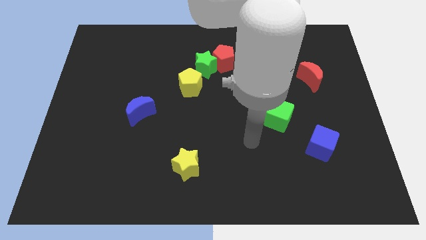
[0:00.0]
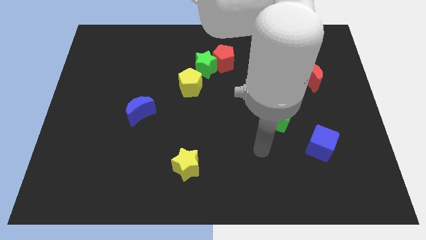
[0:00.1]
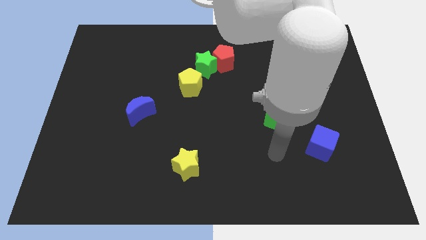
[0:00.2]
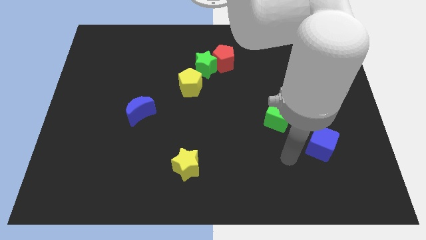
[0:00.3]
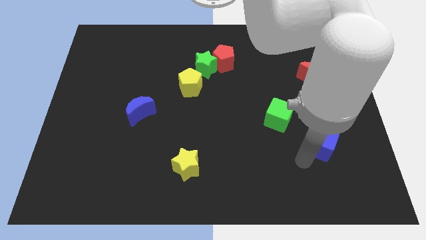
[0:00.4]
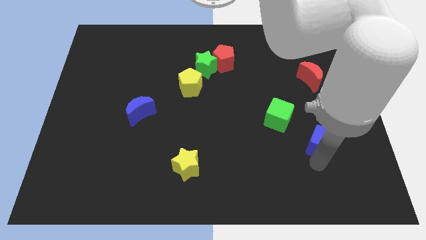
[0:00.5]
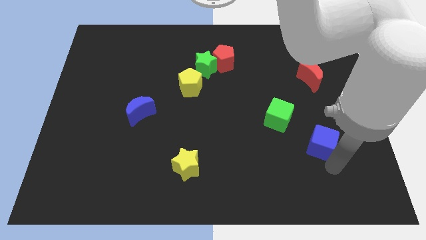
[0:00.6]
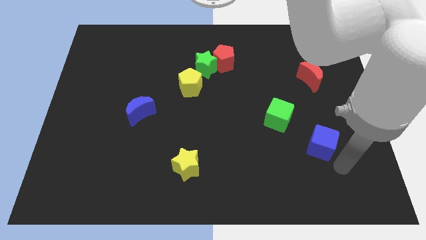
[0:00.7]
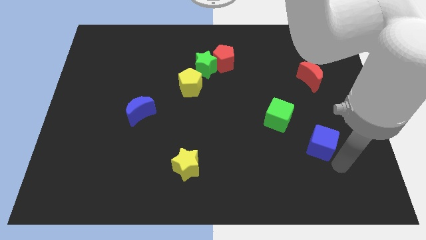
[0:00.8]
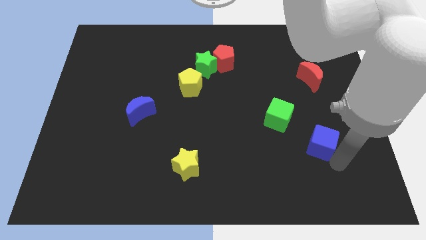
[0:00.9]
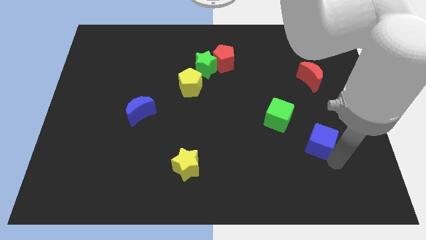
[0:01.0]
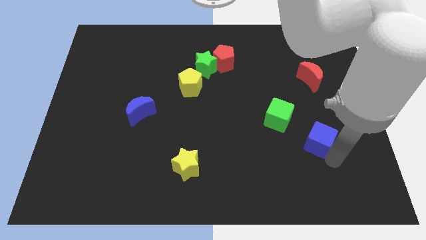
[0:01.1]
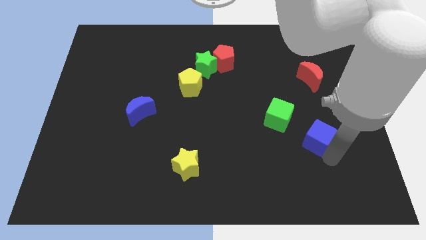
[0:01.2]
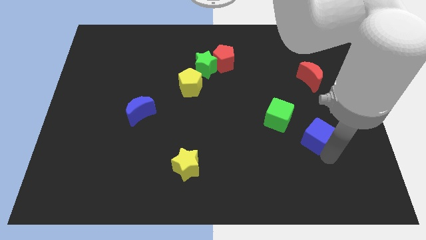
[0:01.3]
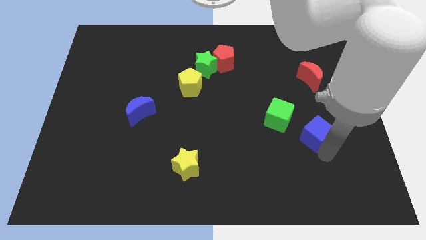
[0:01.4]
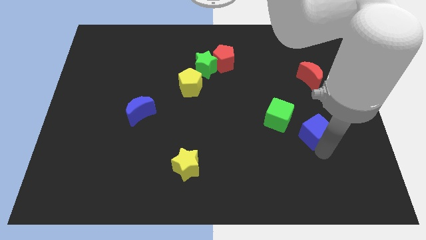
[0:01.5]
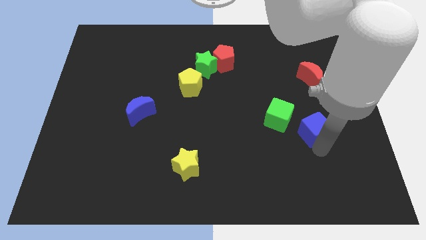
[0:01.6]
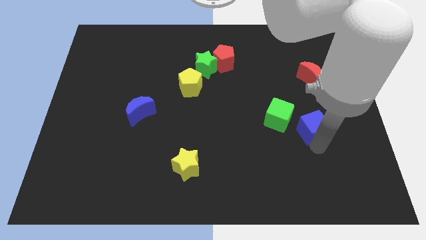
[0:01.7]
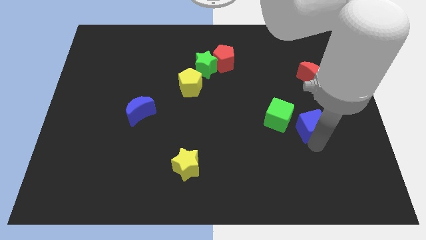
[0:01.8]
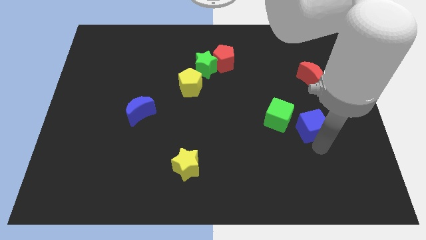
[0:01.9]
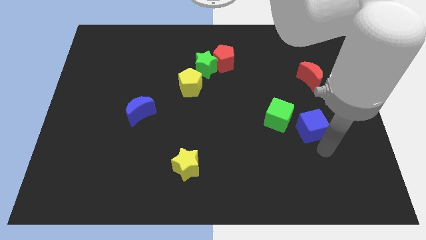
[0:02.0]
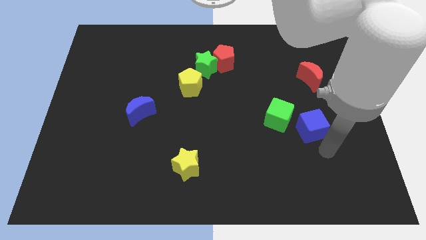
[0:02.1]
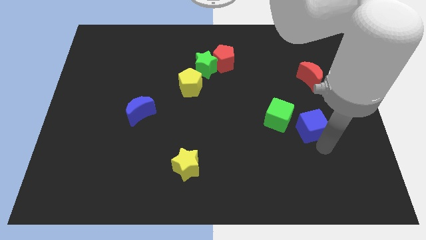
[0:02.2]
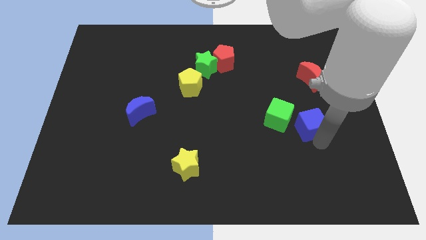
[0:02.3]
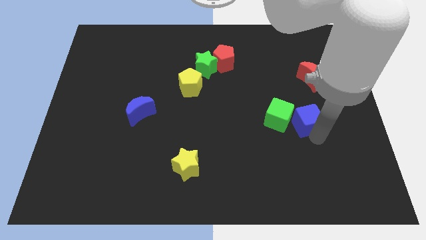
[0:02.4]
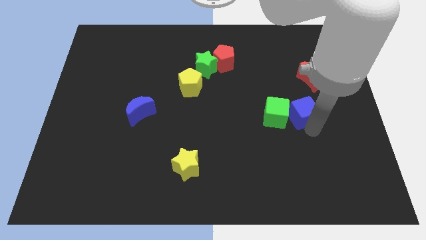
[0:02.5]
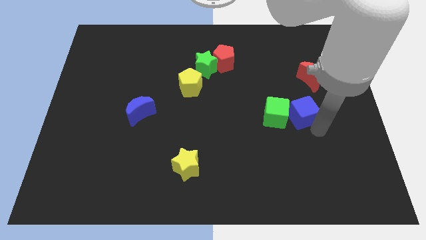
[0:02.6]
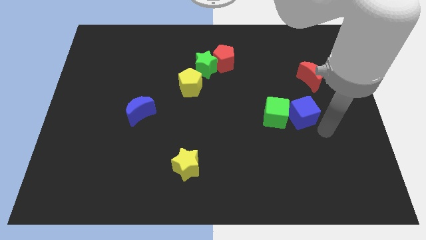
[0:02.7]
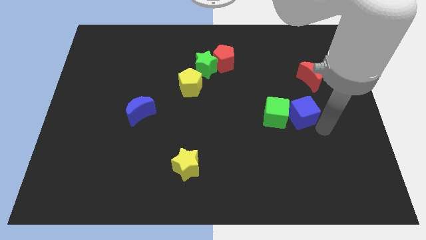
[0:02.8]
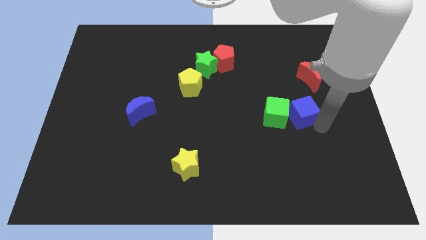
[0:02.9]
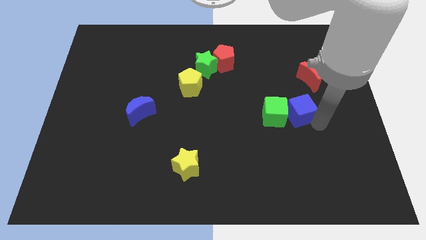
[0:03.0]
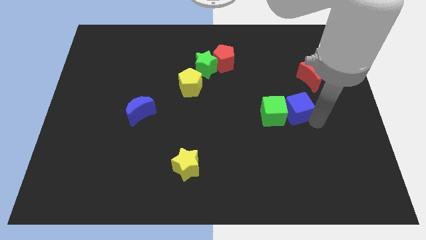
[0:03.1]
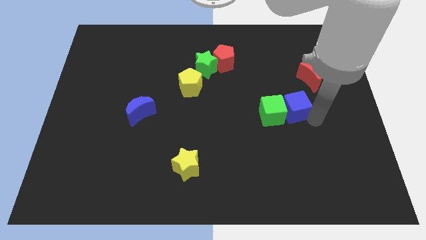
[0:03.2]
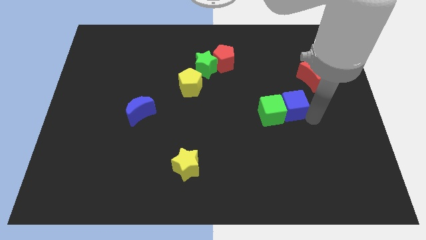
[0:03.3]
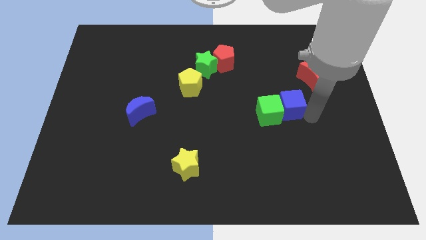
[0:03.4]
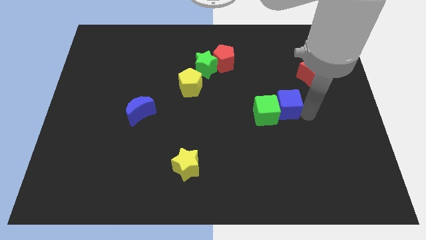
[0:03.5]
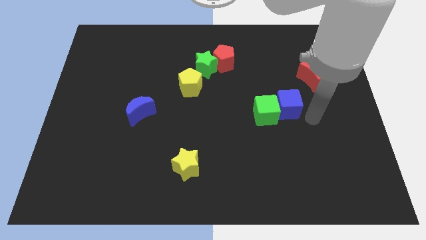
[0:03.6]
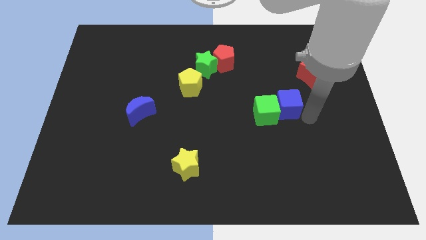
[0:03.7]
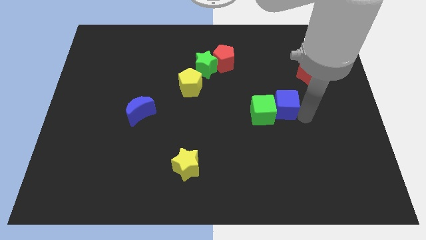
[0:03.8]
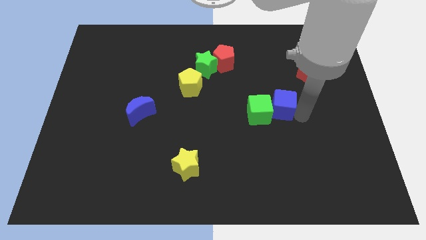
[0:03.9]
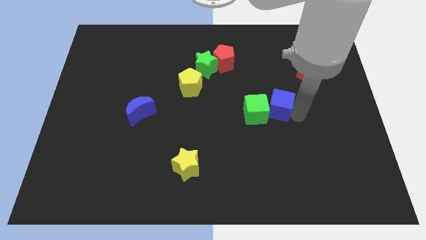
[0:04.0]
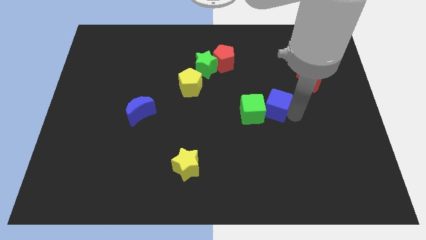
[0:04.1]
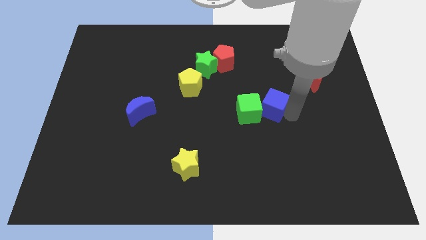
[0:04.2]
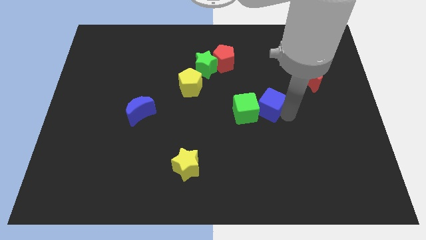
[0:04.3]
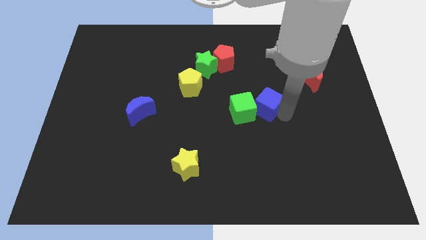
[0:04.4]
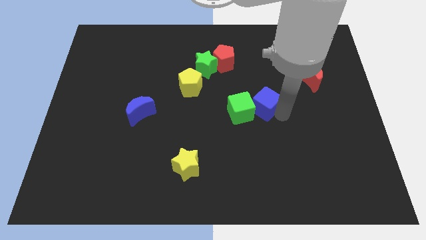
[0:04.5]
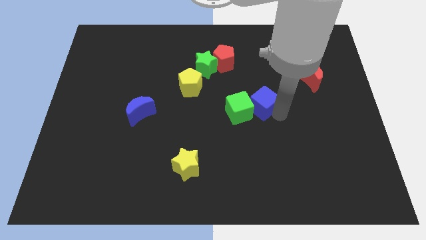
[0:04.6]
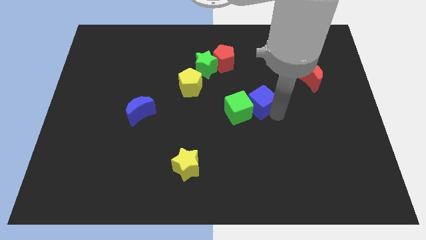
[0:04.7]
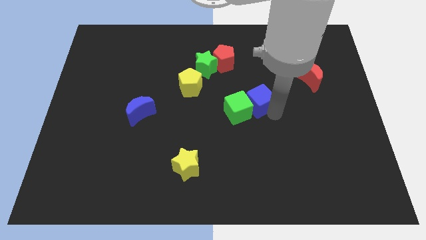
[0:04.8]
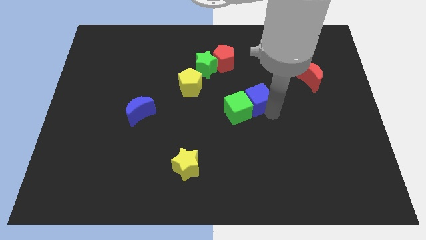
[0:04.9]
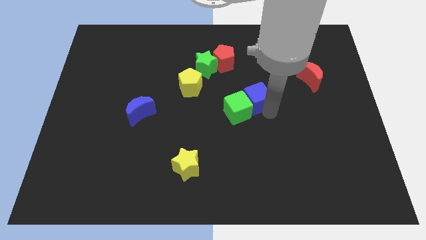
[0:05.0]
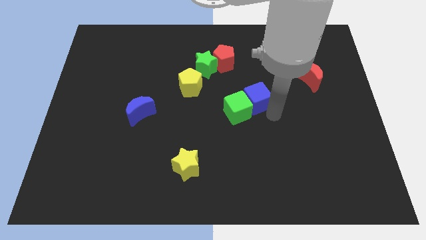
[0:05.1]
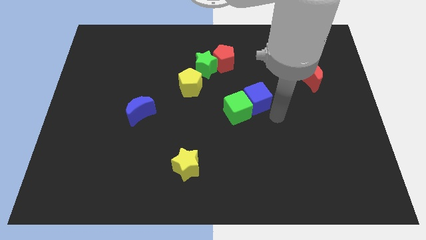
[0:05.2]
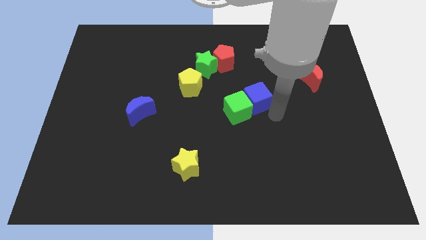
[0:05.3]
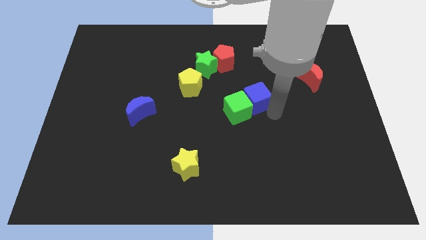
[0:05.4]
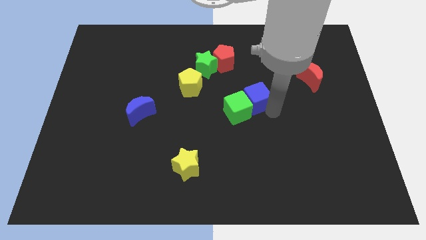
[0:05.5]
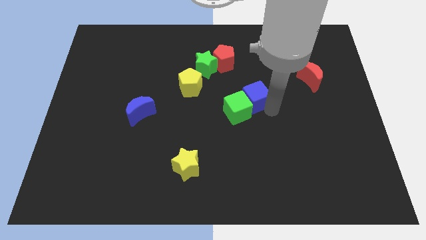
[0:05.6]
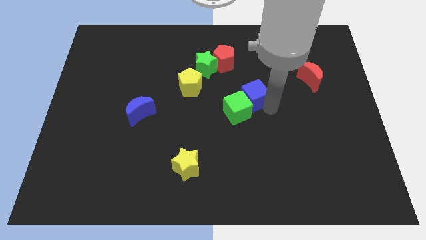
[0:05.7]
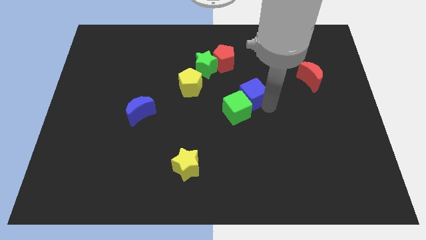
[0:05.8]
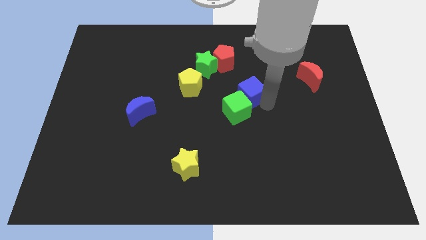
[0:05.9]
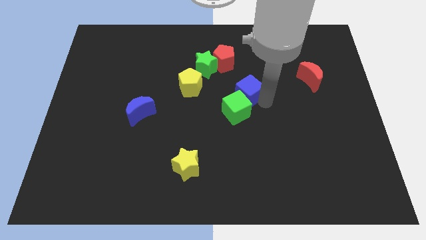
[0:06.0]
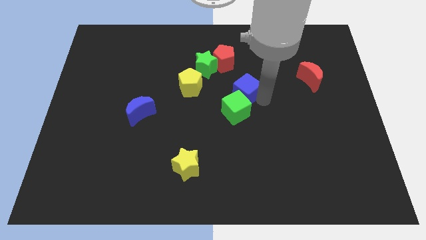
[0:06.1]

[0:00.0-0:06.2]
move the blue cube below the red pentagon

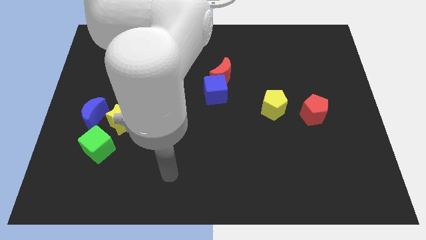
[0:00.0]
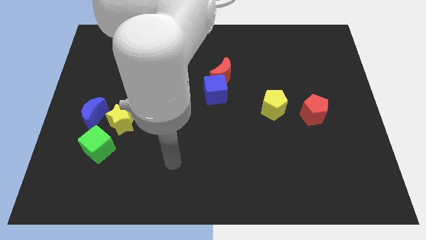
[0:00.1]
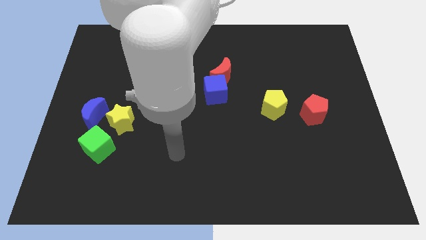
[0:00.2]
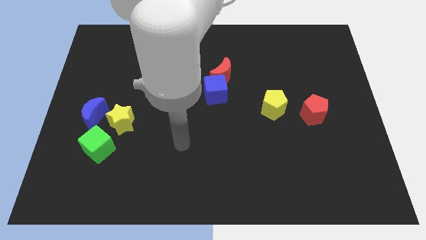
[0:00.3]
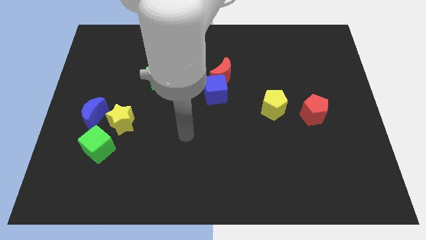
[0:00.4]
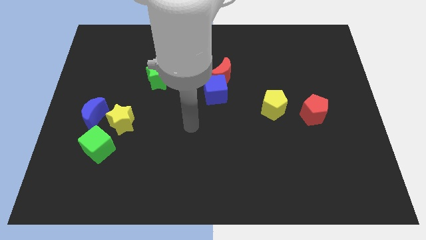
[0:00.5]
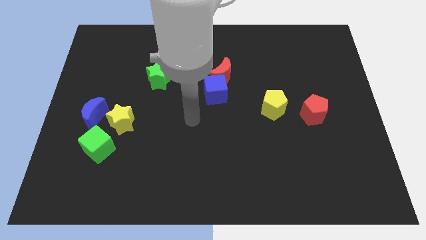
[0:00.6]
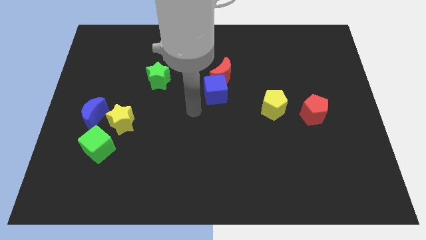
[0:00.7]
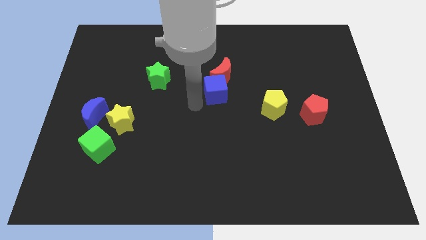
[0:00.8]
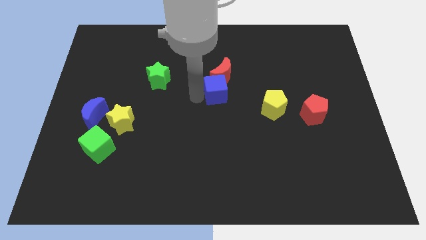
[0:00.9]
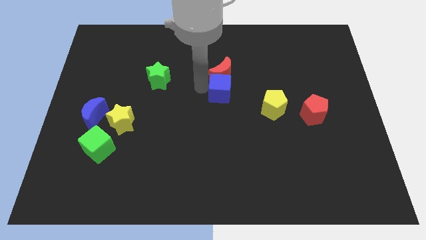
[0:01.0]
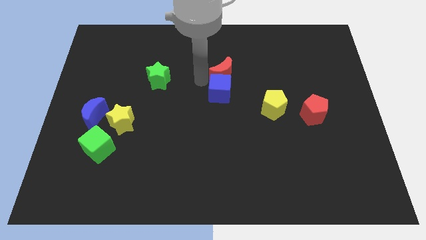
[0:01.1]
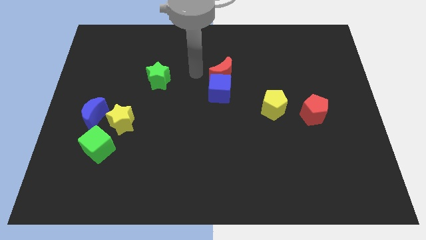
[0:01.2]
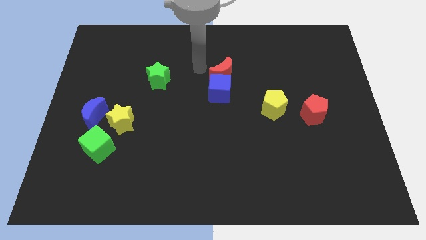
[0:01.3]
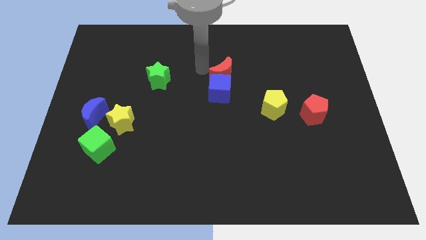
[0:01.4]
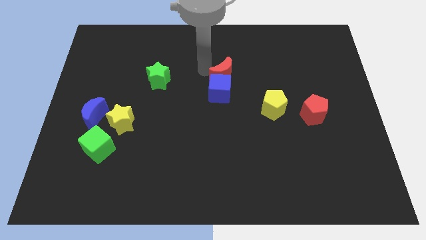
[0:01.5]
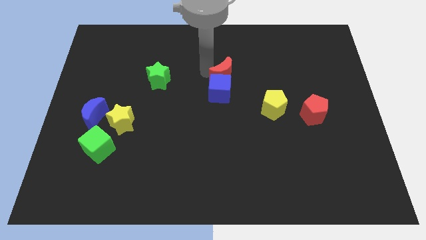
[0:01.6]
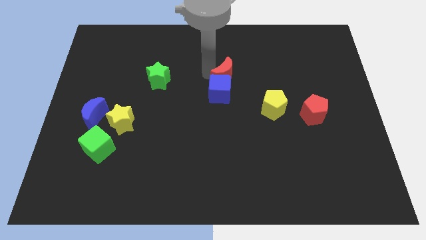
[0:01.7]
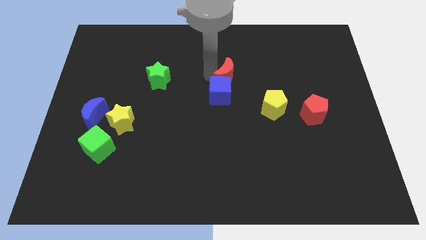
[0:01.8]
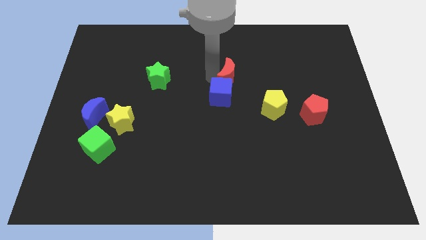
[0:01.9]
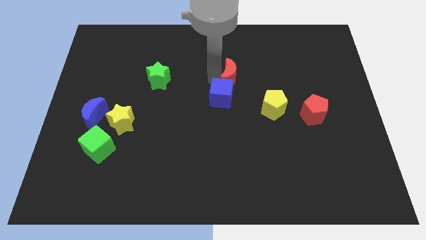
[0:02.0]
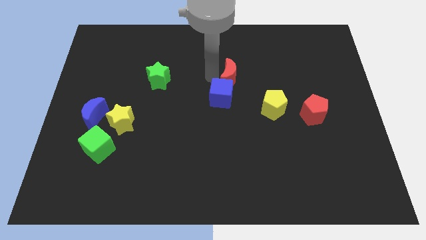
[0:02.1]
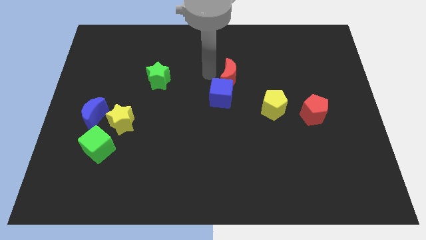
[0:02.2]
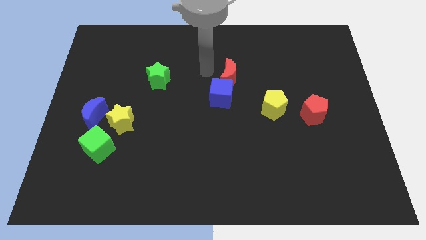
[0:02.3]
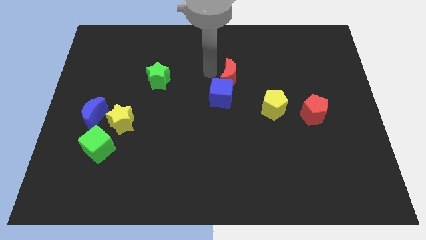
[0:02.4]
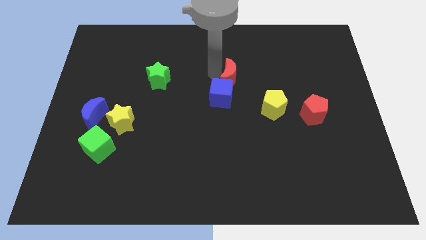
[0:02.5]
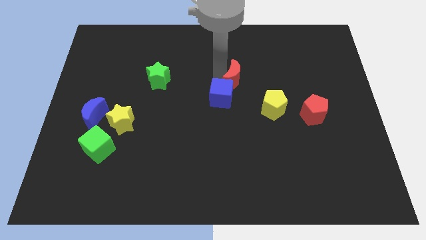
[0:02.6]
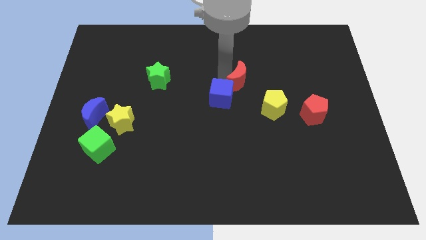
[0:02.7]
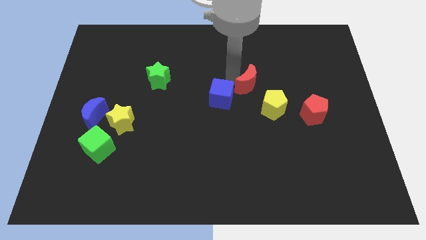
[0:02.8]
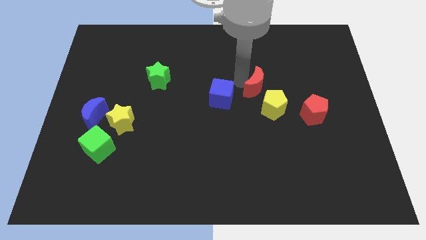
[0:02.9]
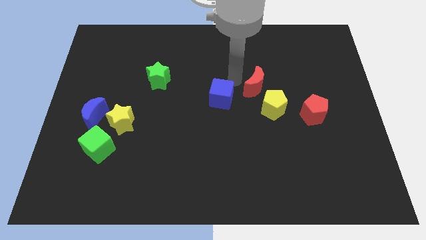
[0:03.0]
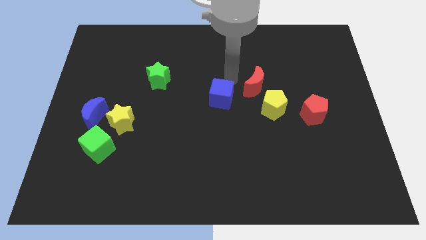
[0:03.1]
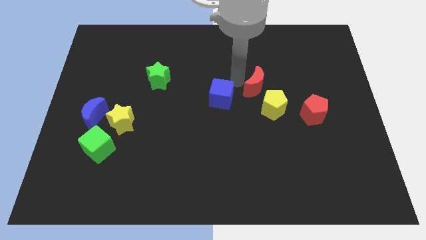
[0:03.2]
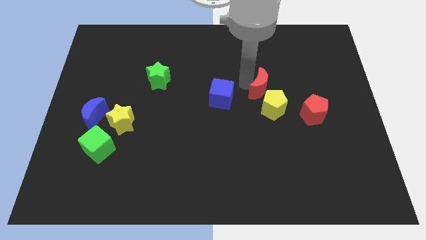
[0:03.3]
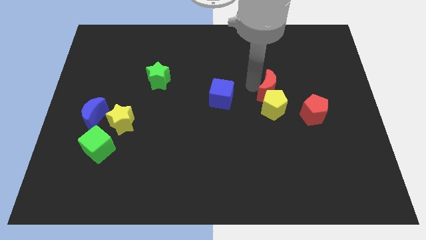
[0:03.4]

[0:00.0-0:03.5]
push the red moon to the top left side of the red pentagon
